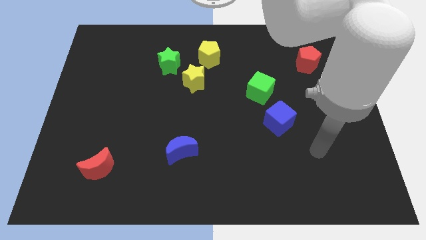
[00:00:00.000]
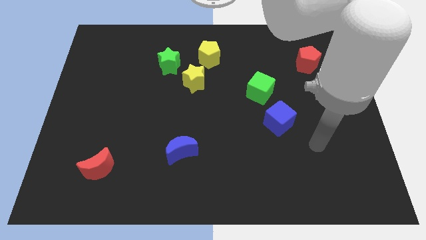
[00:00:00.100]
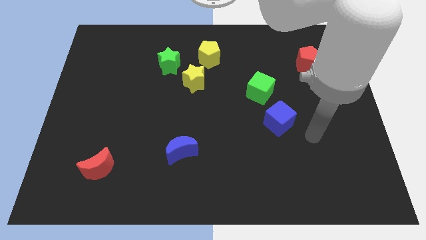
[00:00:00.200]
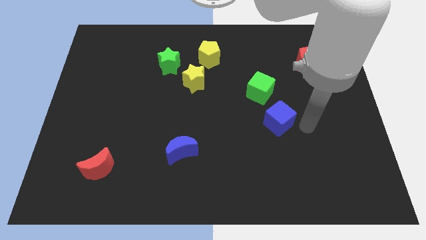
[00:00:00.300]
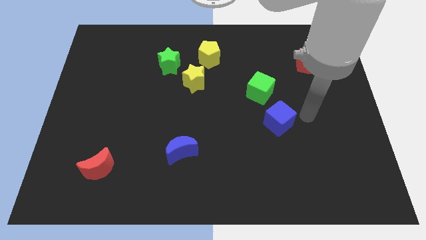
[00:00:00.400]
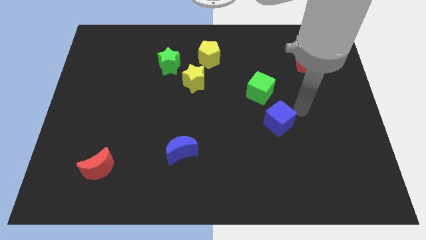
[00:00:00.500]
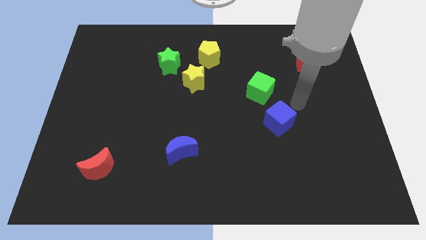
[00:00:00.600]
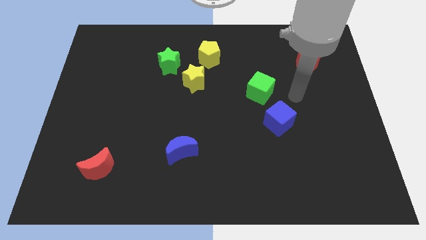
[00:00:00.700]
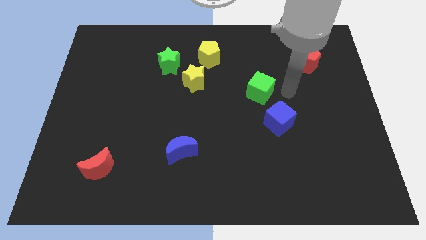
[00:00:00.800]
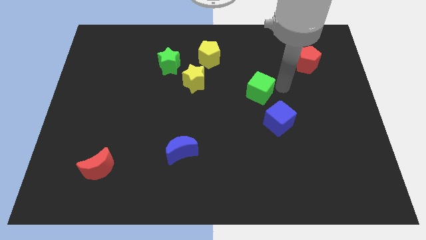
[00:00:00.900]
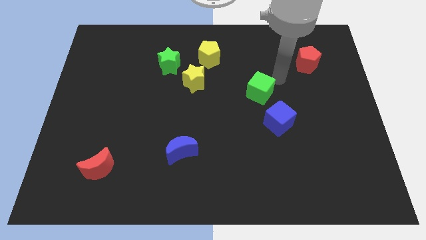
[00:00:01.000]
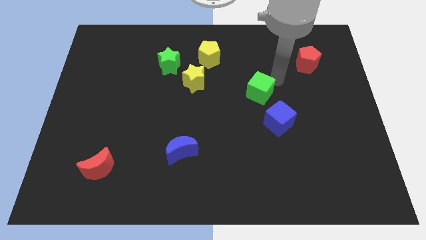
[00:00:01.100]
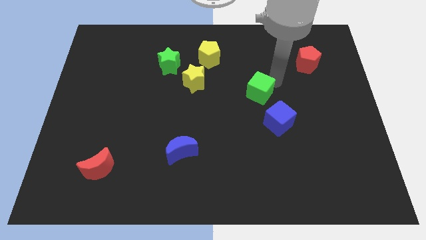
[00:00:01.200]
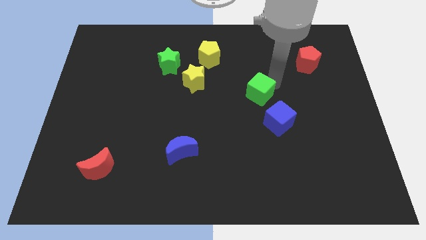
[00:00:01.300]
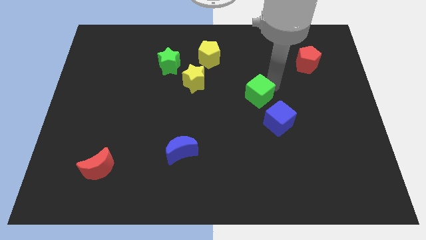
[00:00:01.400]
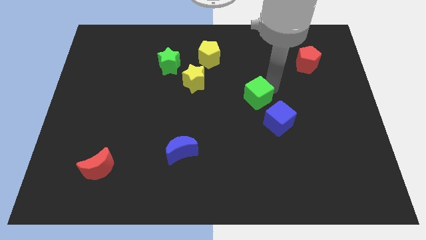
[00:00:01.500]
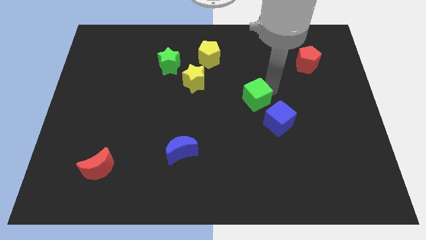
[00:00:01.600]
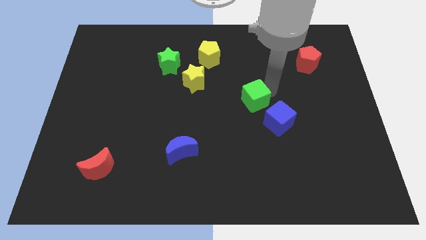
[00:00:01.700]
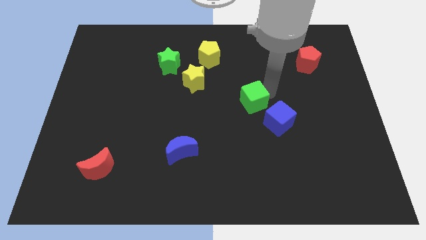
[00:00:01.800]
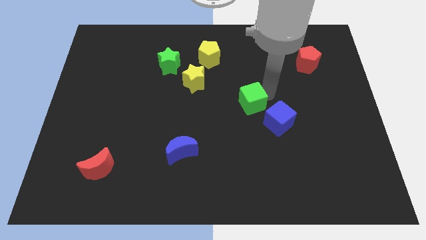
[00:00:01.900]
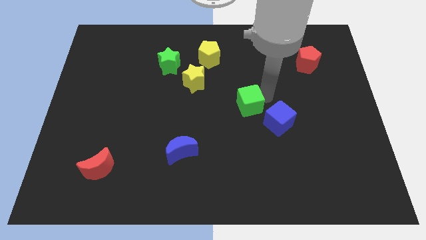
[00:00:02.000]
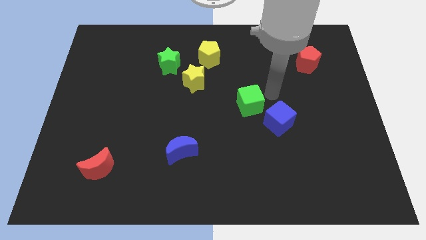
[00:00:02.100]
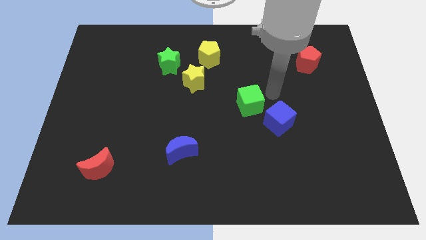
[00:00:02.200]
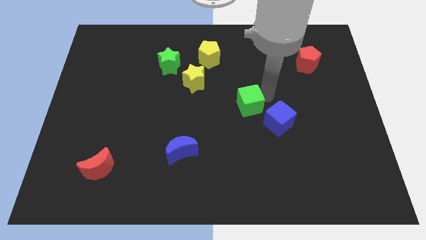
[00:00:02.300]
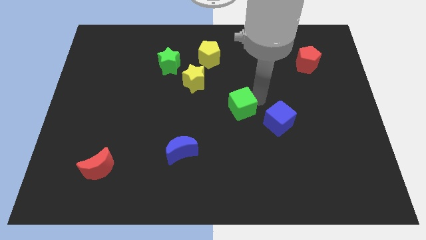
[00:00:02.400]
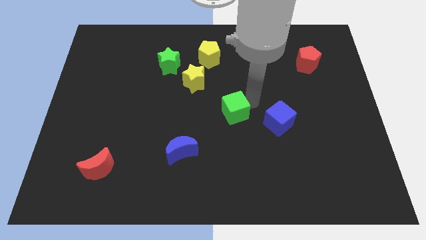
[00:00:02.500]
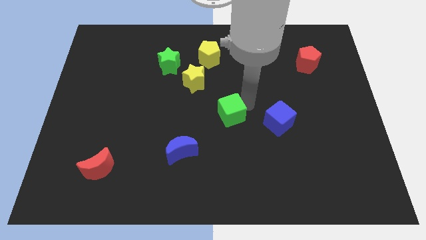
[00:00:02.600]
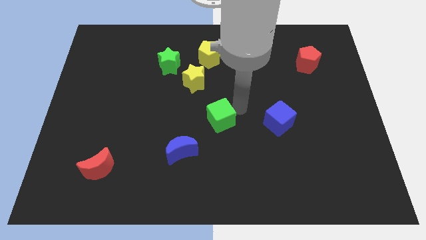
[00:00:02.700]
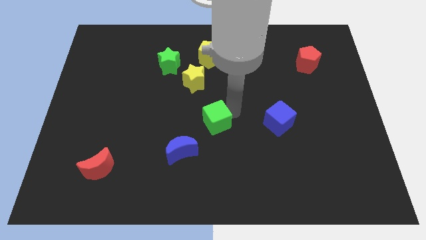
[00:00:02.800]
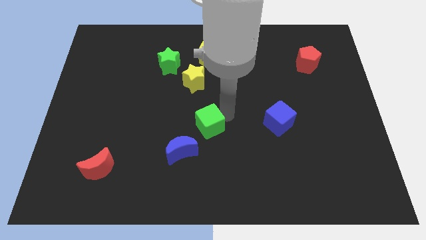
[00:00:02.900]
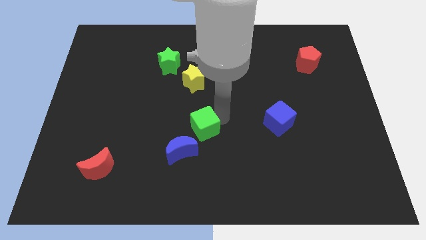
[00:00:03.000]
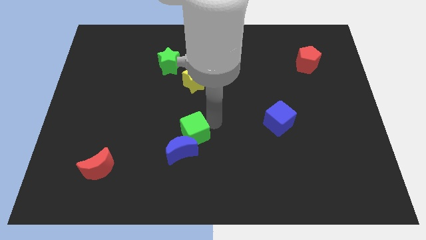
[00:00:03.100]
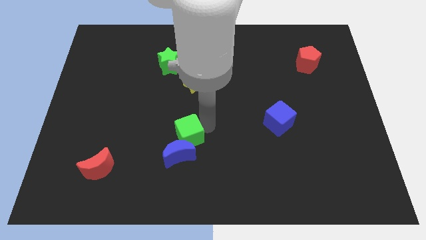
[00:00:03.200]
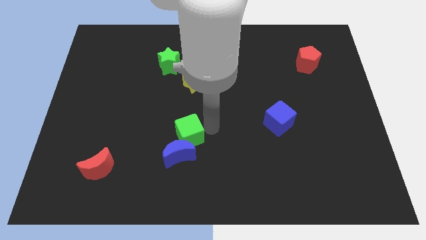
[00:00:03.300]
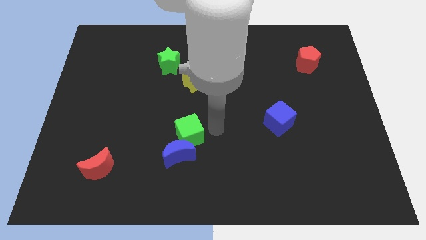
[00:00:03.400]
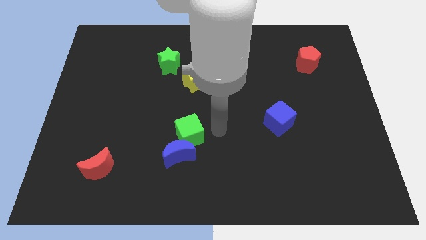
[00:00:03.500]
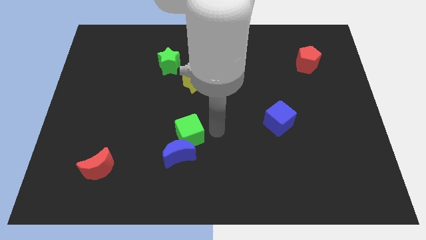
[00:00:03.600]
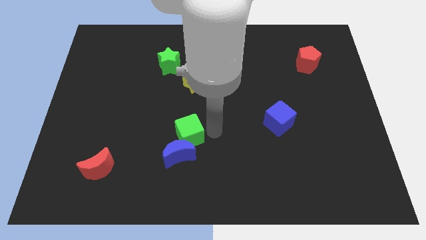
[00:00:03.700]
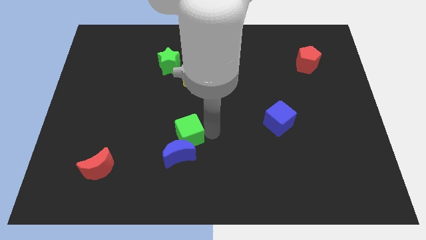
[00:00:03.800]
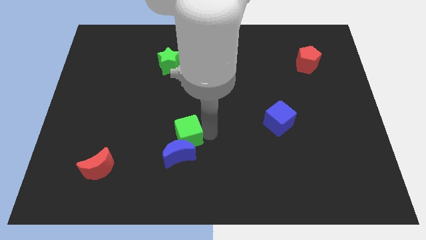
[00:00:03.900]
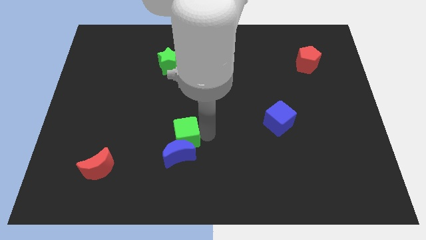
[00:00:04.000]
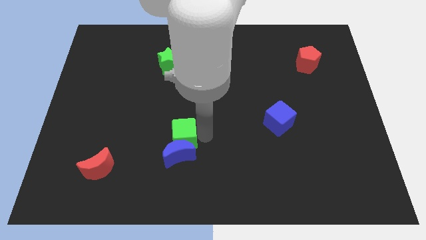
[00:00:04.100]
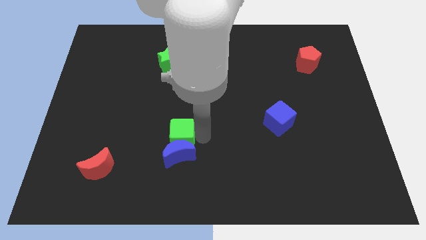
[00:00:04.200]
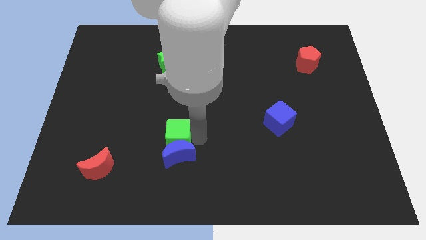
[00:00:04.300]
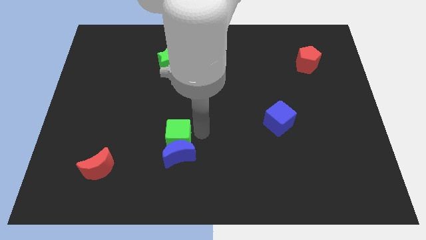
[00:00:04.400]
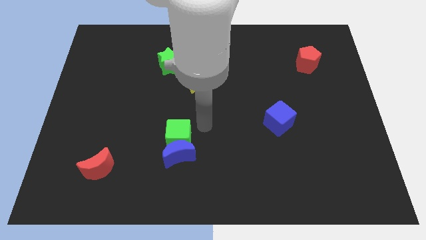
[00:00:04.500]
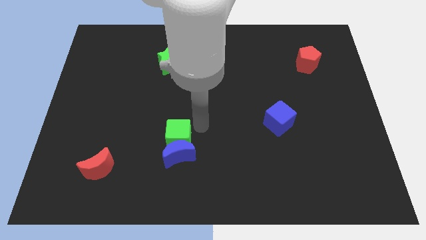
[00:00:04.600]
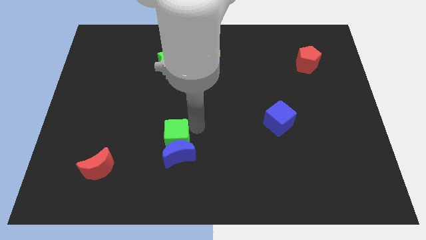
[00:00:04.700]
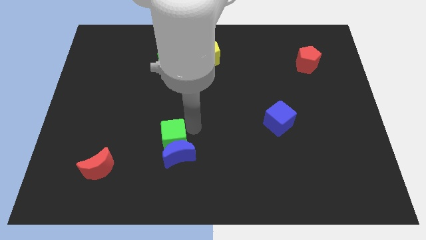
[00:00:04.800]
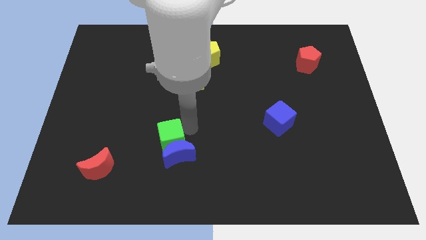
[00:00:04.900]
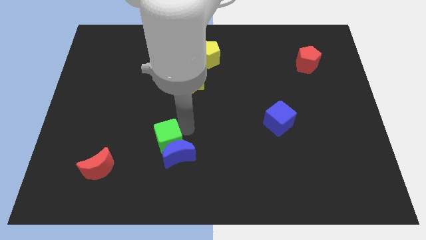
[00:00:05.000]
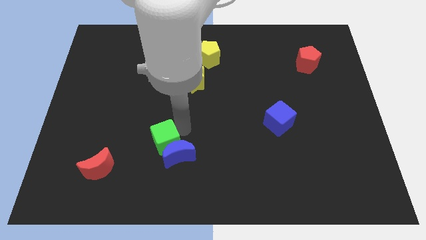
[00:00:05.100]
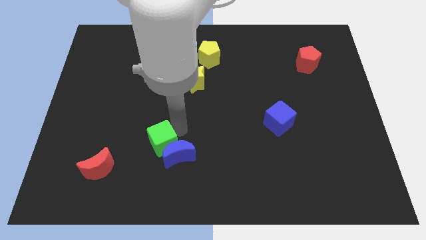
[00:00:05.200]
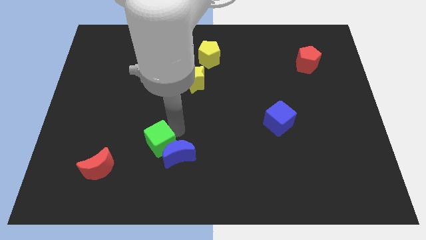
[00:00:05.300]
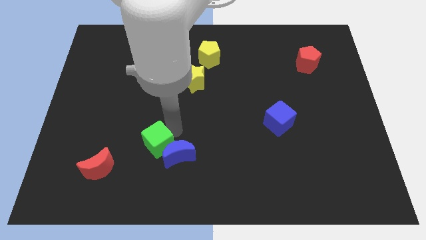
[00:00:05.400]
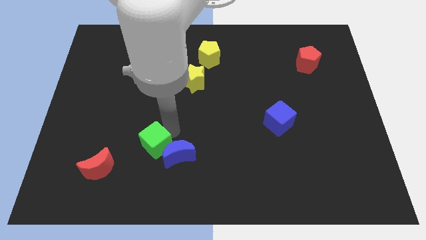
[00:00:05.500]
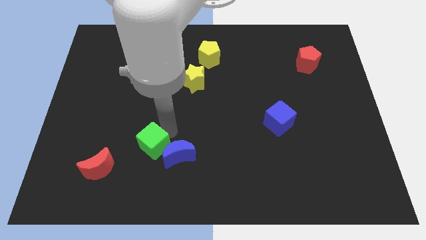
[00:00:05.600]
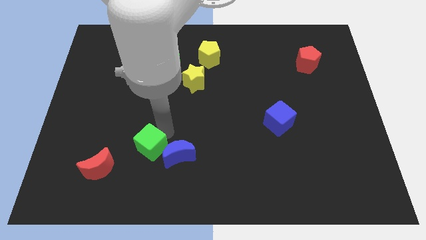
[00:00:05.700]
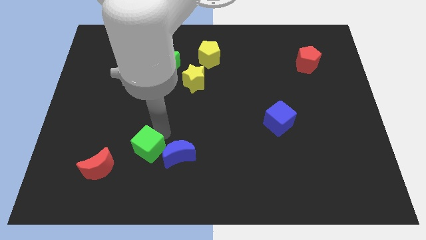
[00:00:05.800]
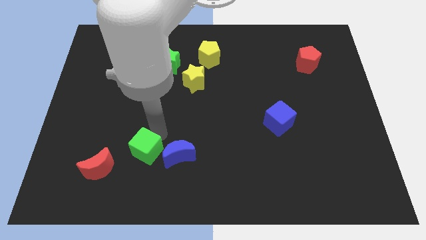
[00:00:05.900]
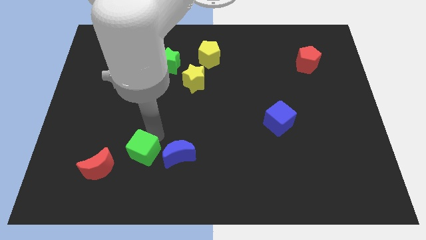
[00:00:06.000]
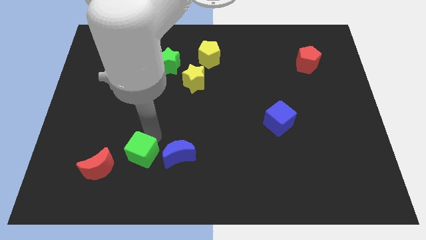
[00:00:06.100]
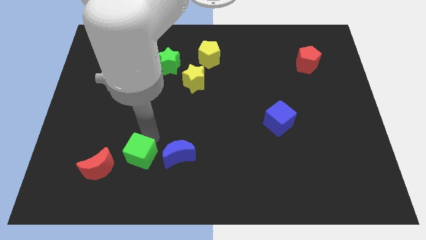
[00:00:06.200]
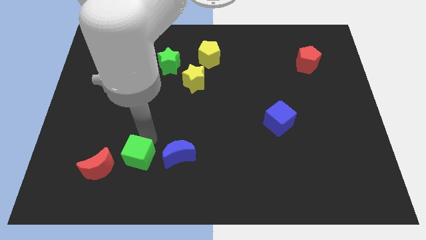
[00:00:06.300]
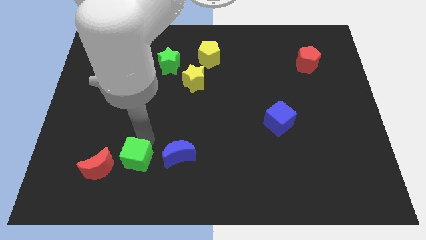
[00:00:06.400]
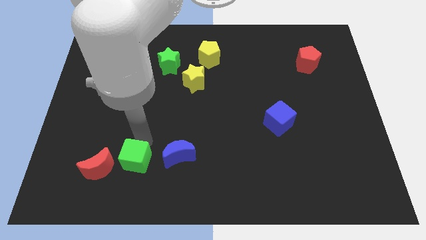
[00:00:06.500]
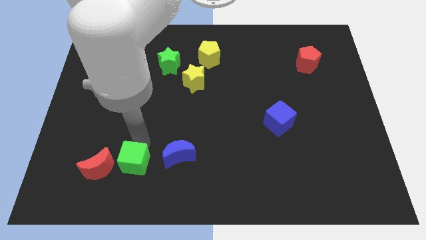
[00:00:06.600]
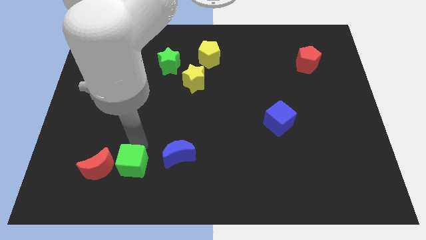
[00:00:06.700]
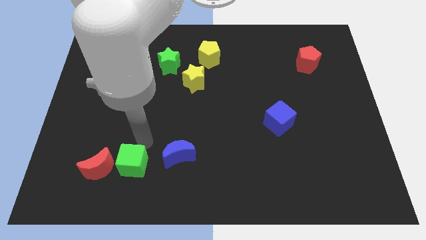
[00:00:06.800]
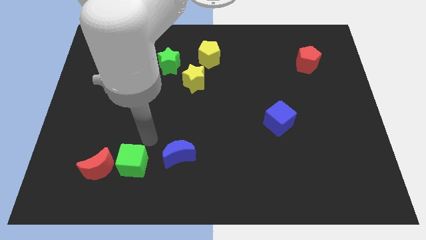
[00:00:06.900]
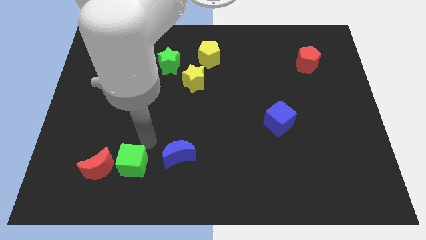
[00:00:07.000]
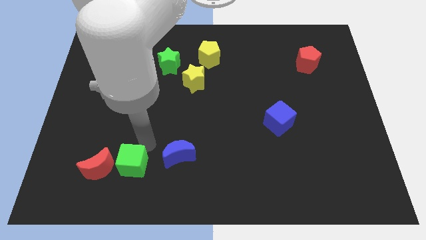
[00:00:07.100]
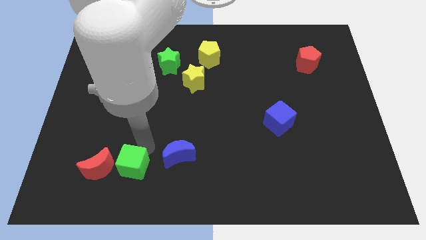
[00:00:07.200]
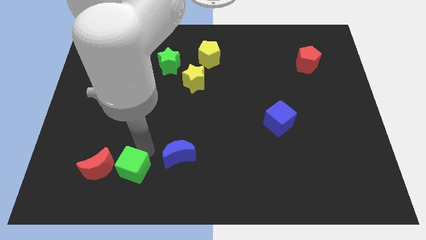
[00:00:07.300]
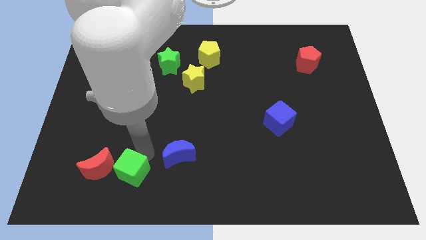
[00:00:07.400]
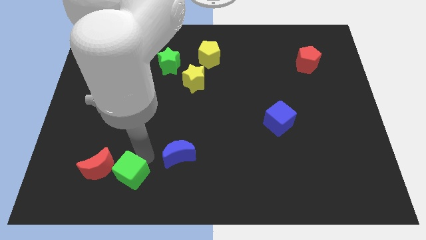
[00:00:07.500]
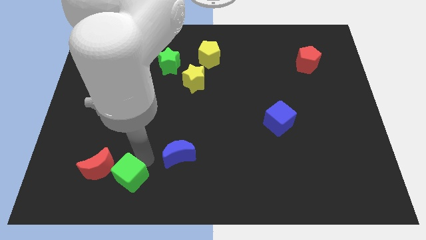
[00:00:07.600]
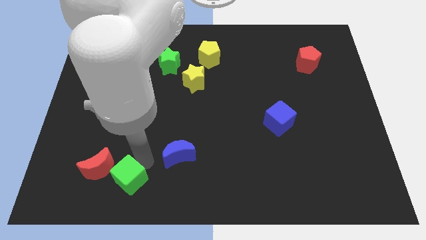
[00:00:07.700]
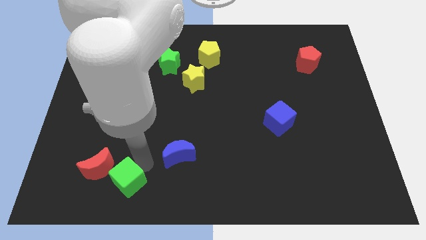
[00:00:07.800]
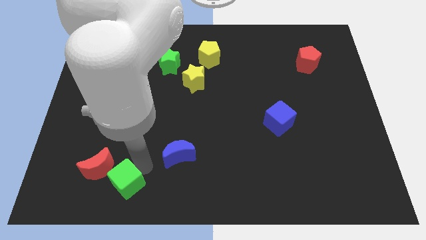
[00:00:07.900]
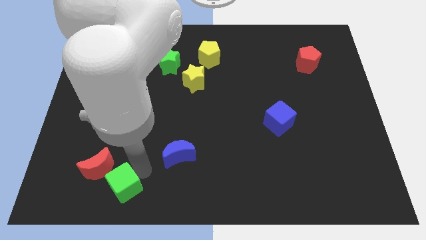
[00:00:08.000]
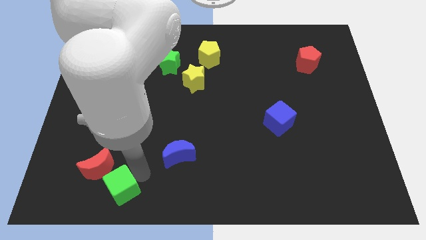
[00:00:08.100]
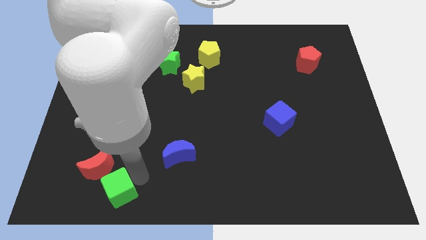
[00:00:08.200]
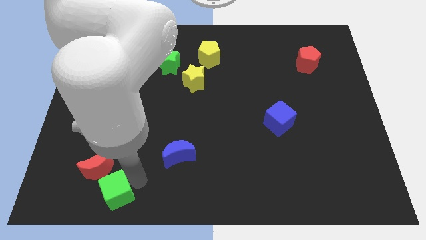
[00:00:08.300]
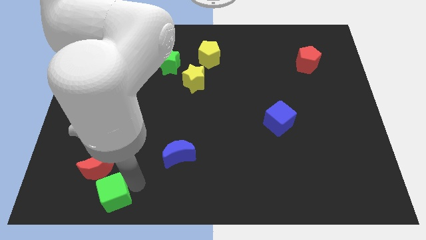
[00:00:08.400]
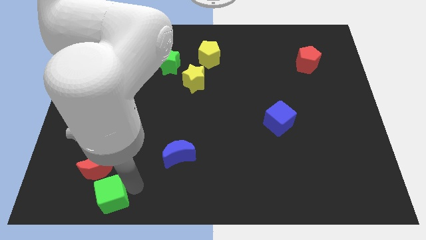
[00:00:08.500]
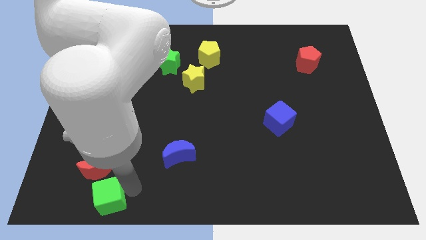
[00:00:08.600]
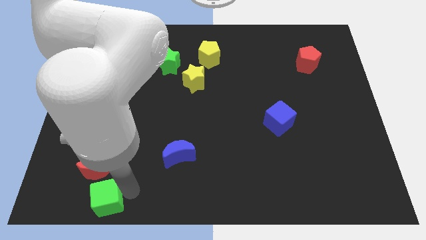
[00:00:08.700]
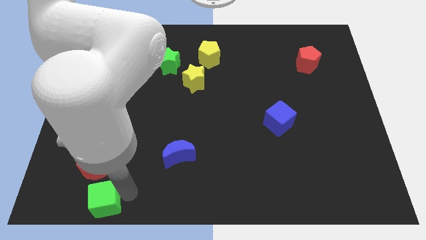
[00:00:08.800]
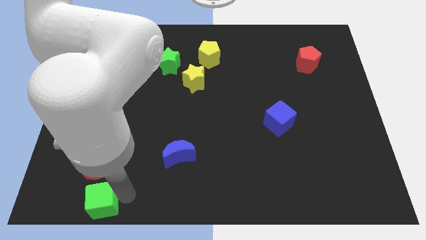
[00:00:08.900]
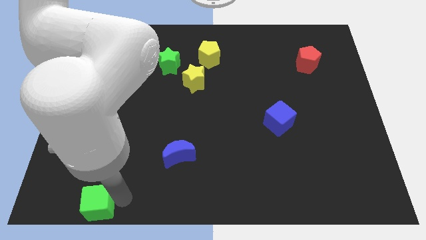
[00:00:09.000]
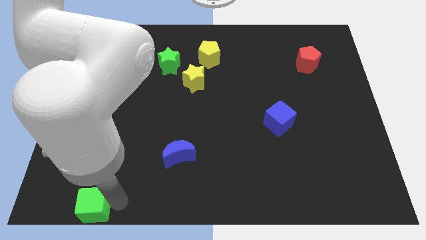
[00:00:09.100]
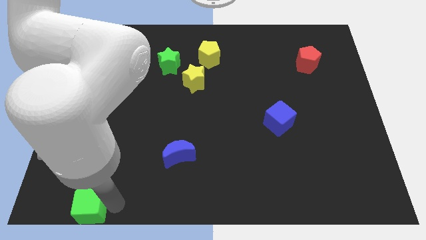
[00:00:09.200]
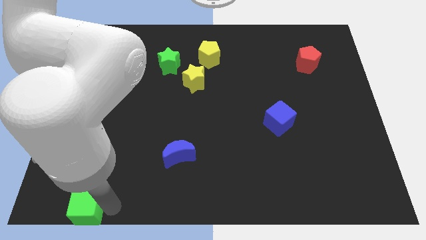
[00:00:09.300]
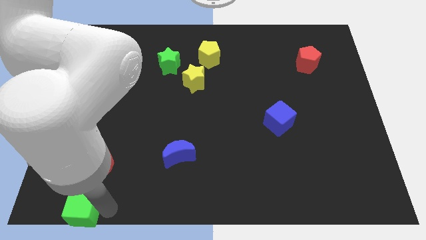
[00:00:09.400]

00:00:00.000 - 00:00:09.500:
put the green cube to the bottom left corner
